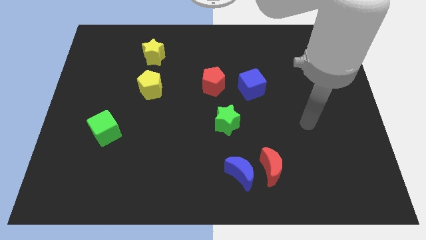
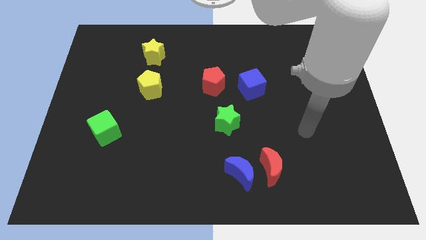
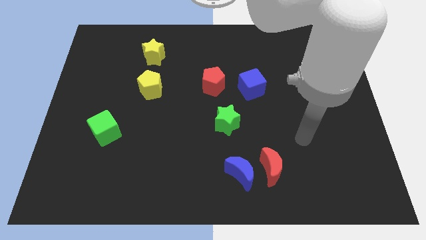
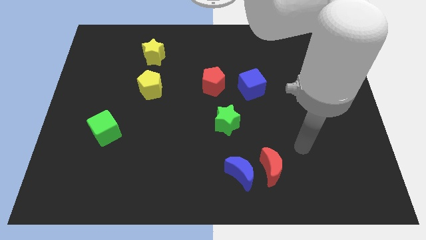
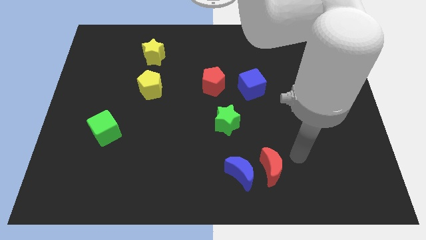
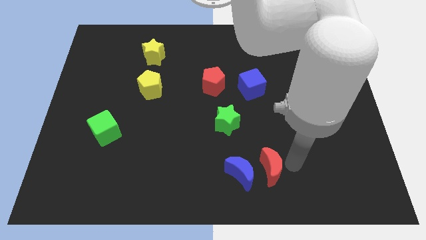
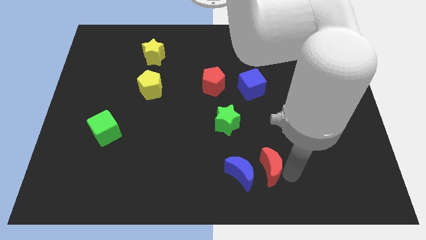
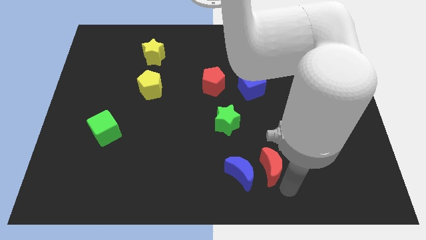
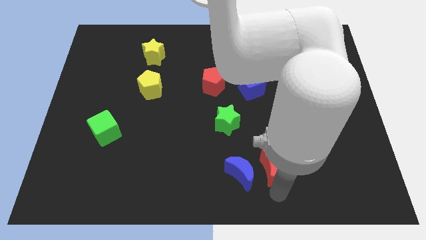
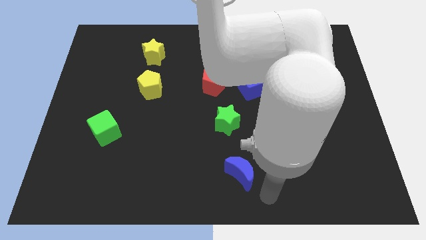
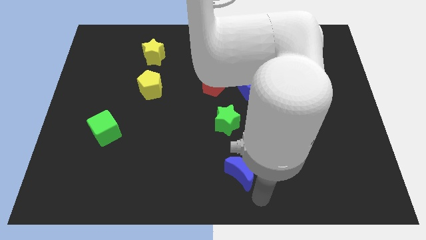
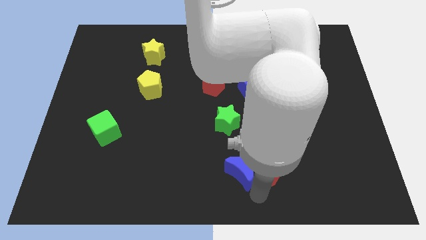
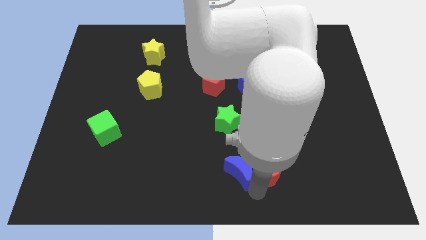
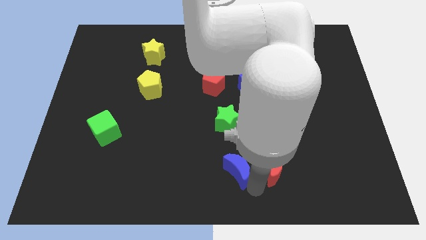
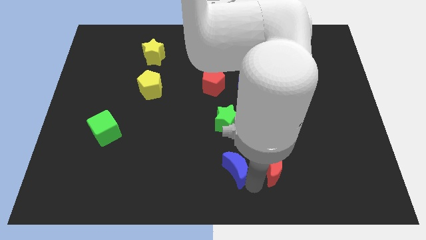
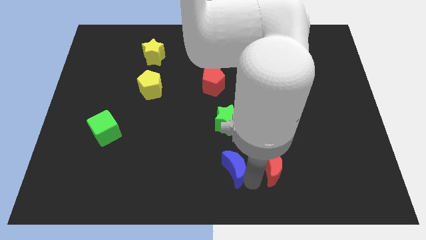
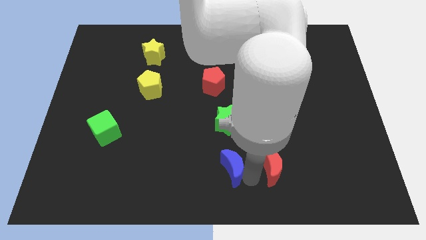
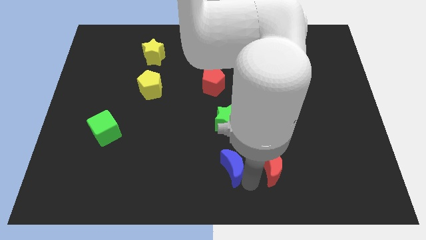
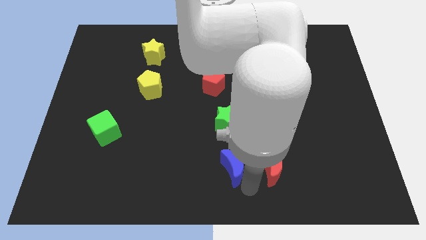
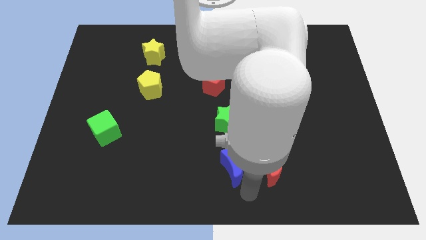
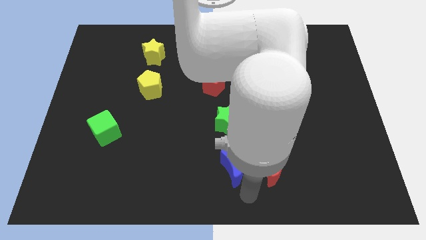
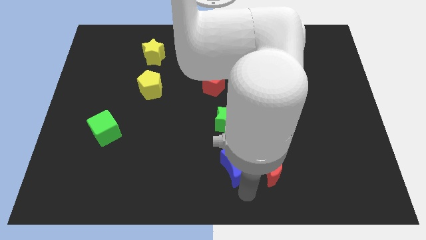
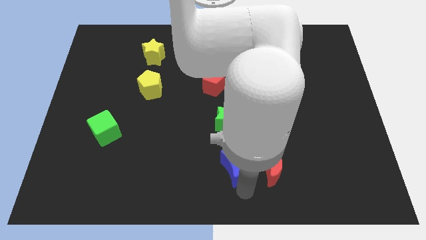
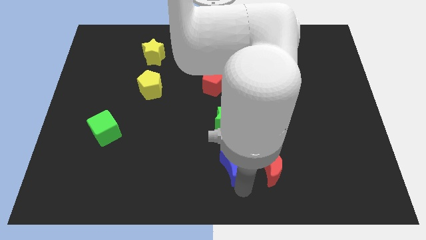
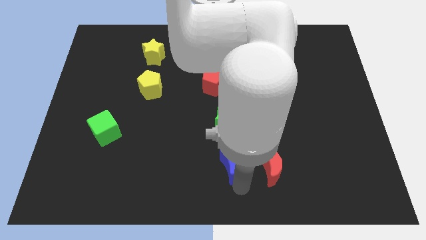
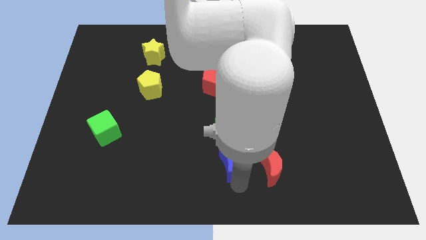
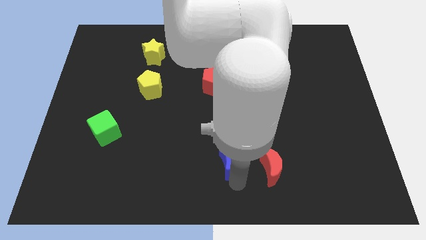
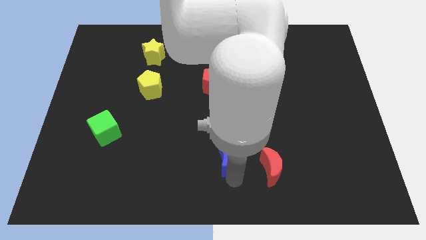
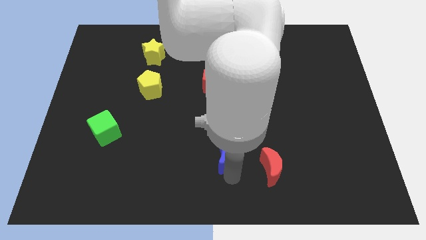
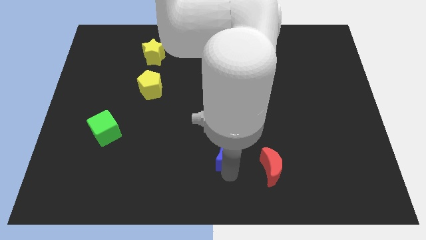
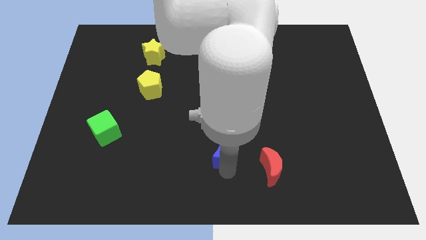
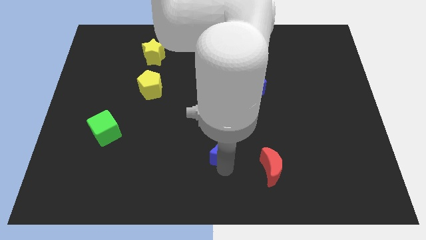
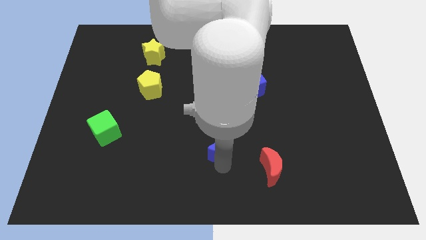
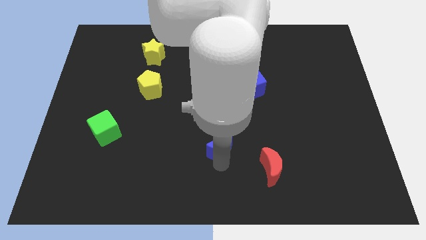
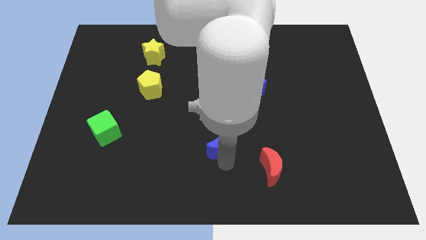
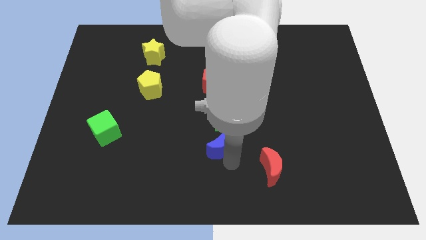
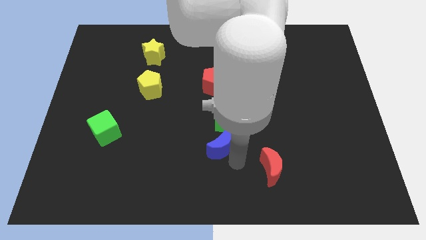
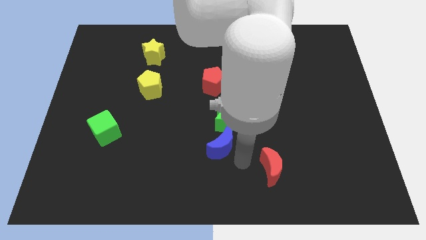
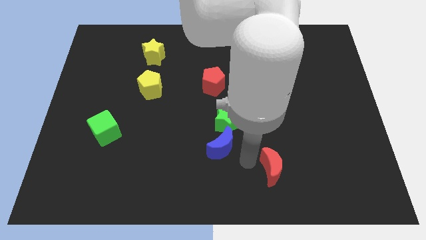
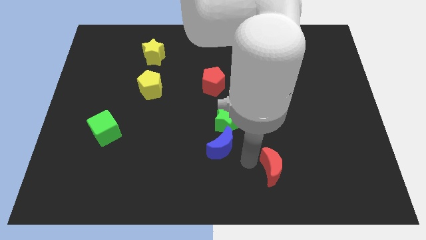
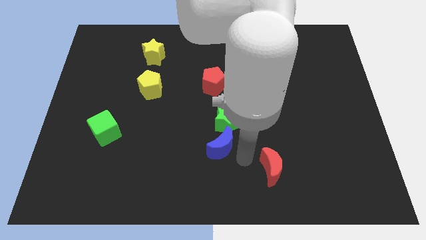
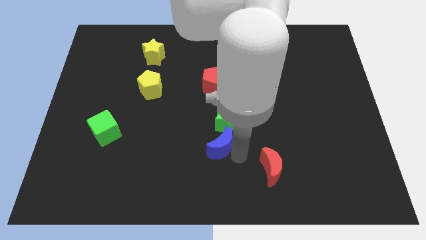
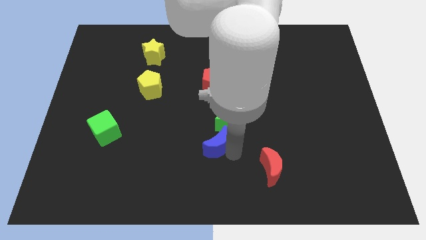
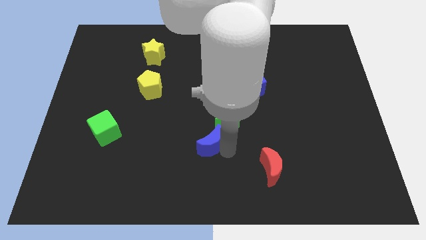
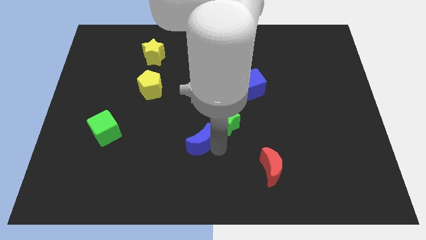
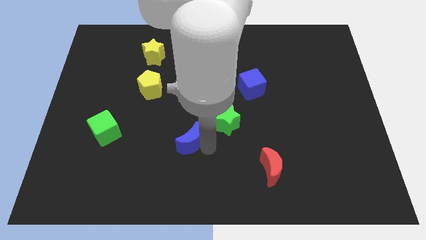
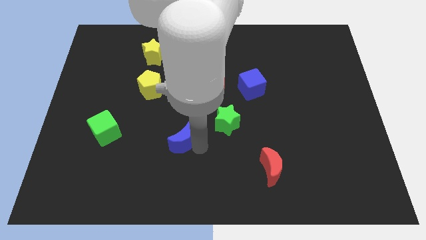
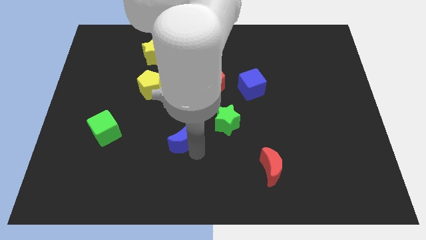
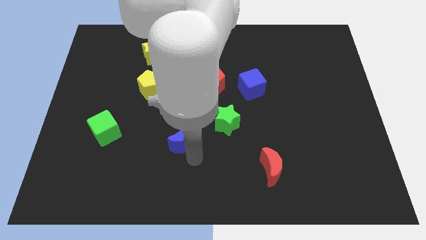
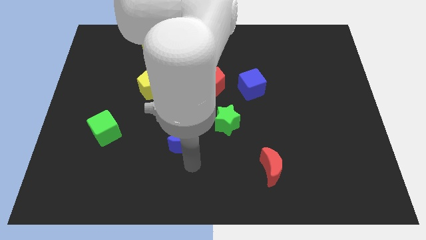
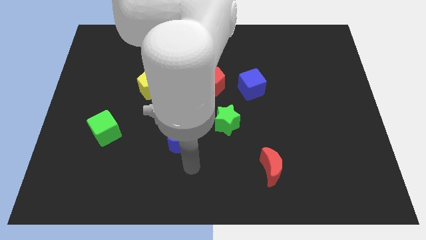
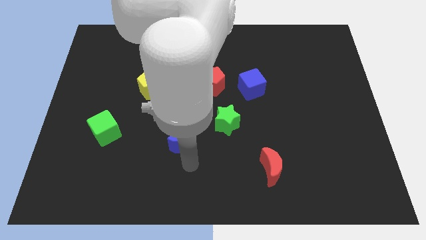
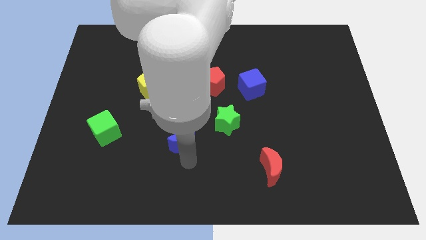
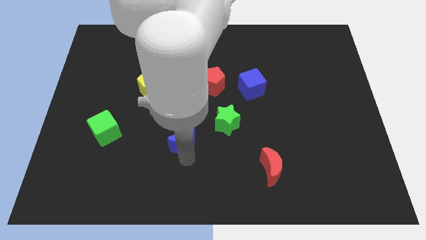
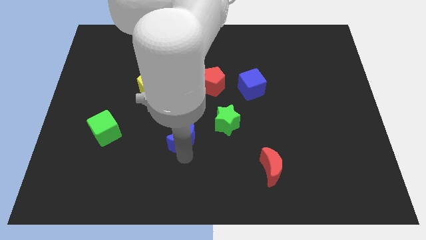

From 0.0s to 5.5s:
slide the blue moon to the left of the green star
